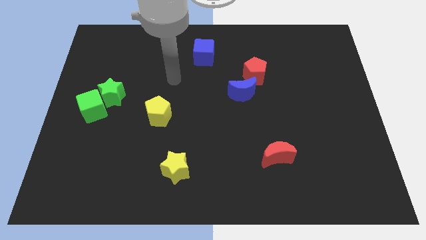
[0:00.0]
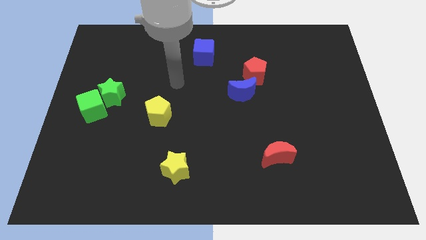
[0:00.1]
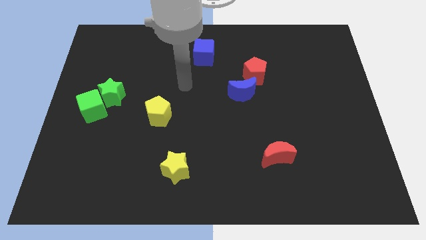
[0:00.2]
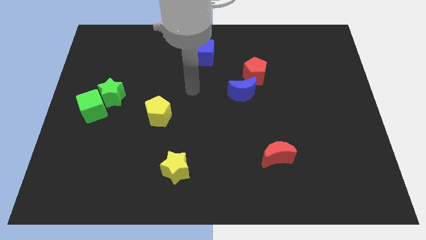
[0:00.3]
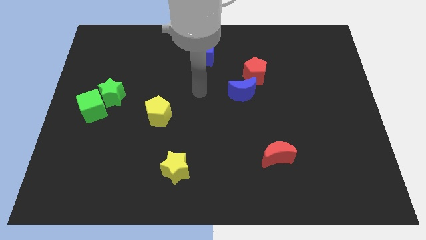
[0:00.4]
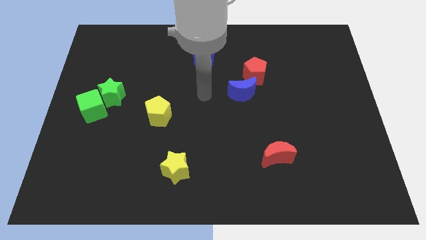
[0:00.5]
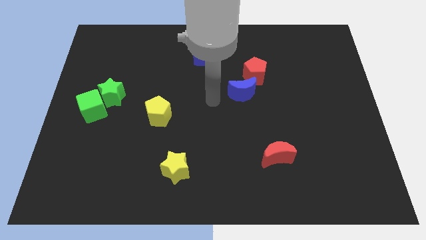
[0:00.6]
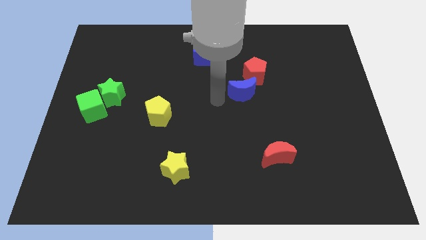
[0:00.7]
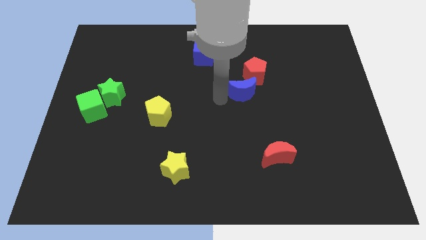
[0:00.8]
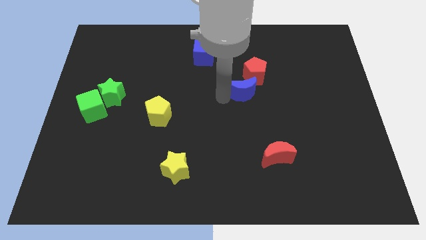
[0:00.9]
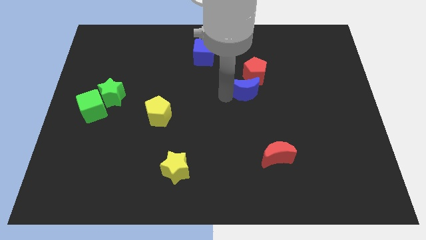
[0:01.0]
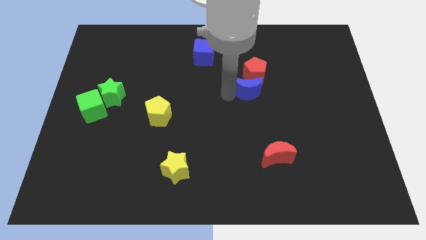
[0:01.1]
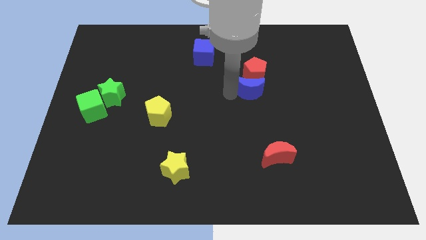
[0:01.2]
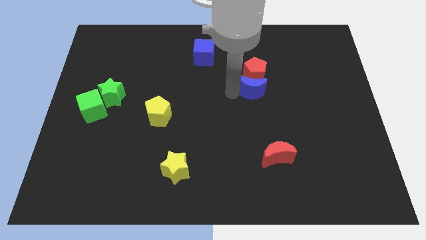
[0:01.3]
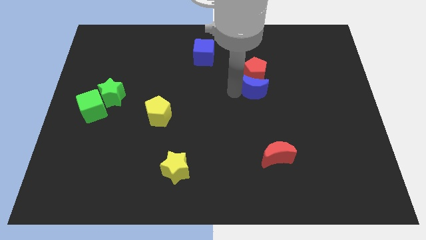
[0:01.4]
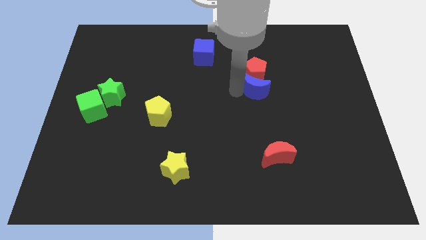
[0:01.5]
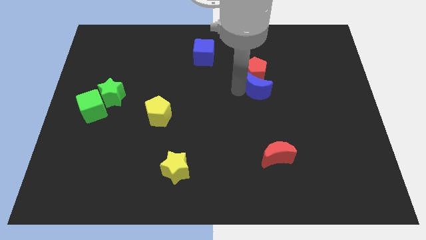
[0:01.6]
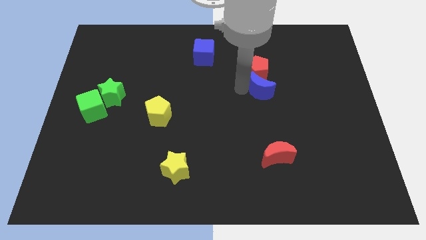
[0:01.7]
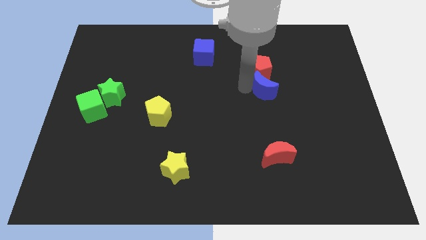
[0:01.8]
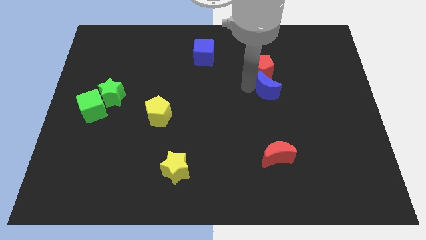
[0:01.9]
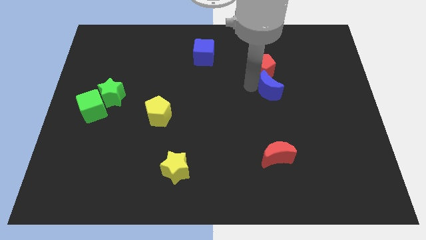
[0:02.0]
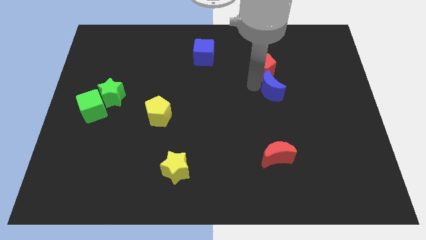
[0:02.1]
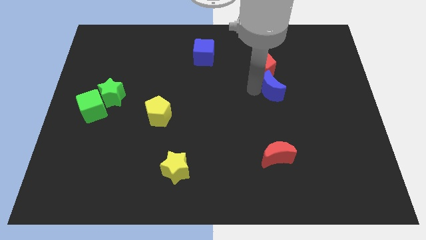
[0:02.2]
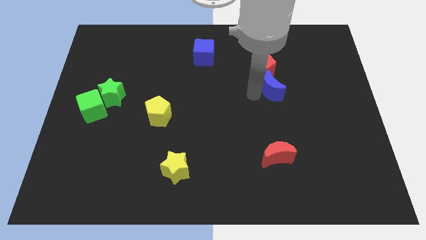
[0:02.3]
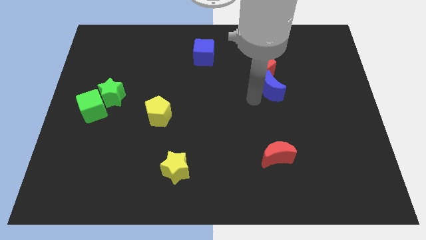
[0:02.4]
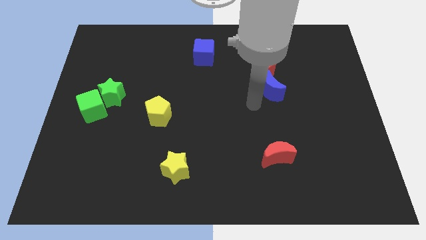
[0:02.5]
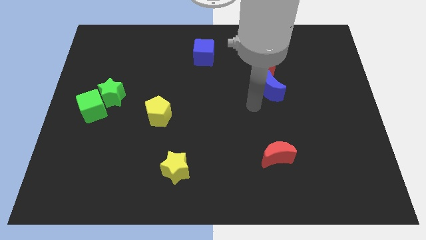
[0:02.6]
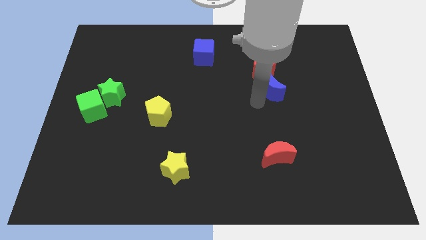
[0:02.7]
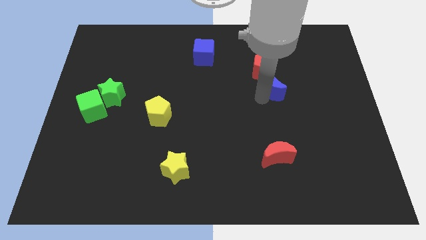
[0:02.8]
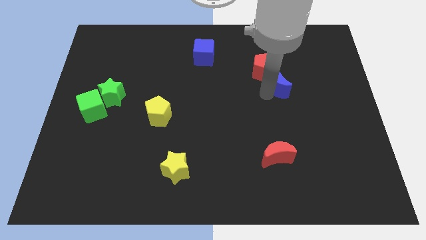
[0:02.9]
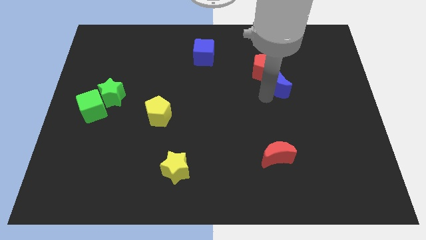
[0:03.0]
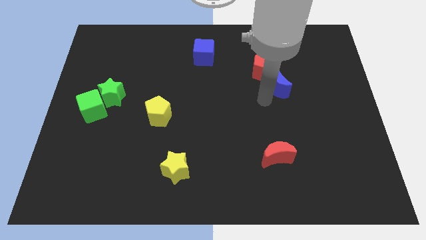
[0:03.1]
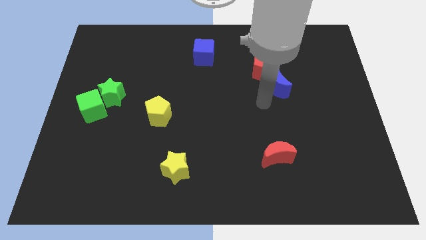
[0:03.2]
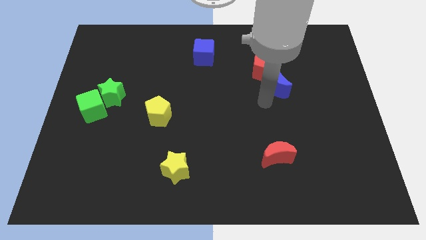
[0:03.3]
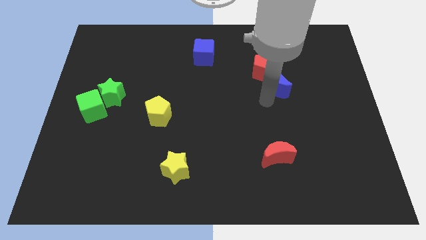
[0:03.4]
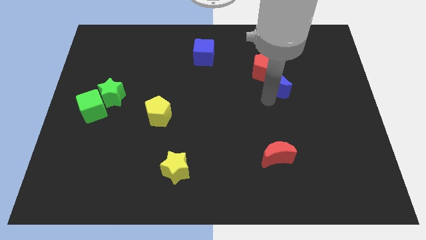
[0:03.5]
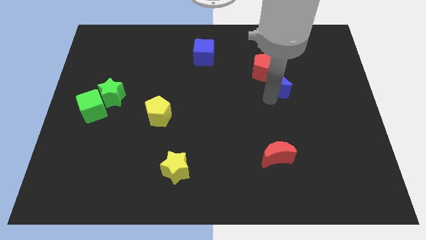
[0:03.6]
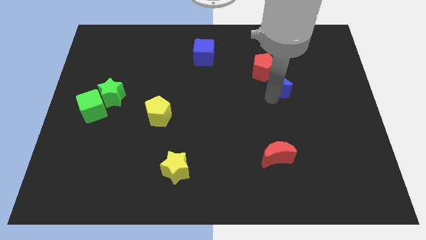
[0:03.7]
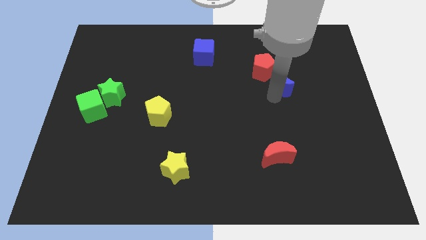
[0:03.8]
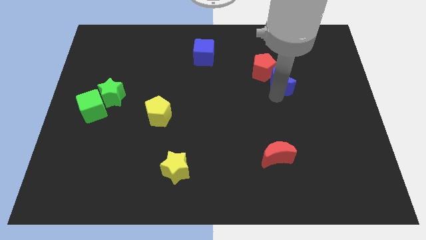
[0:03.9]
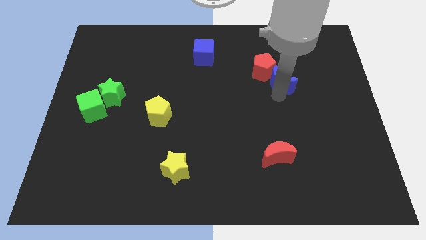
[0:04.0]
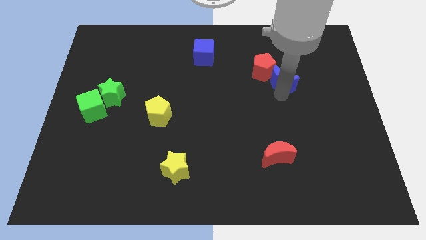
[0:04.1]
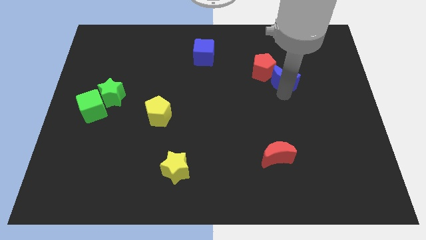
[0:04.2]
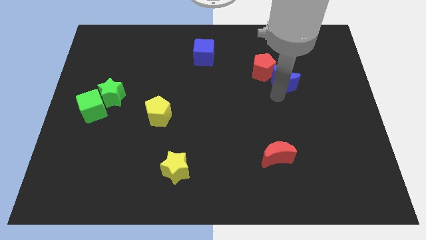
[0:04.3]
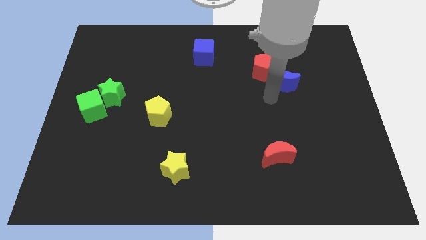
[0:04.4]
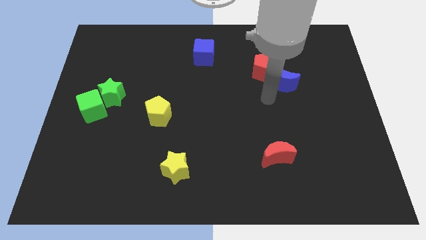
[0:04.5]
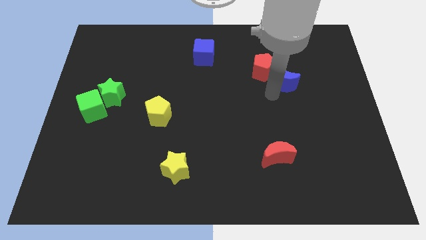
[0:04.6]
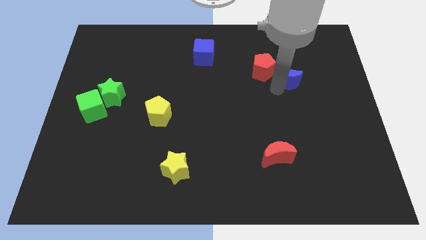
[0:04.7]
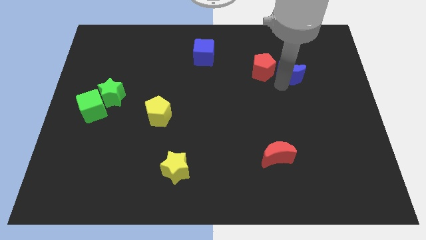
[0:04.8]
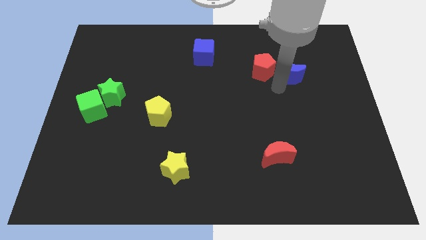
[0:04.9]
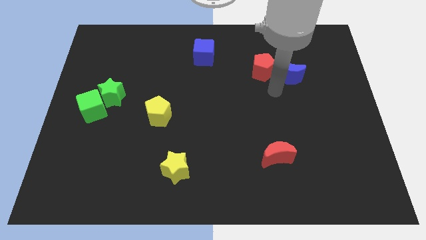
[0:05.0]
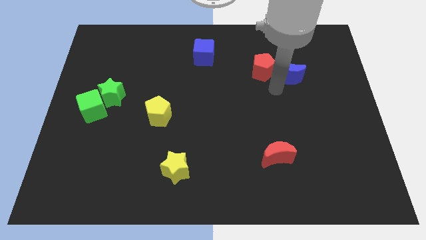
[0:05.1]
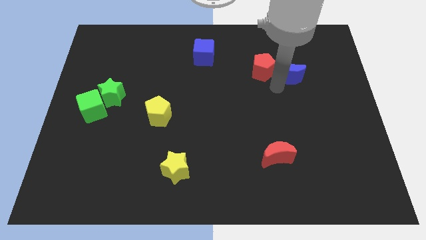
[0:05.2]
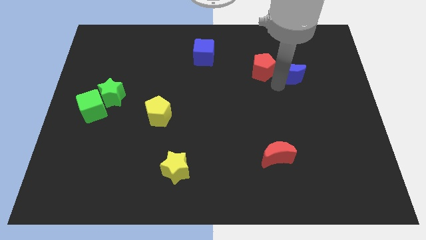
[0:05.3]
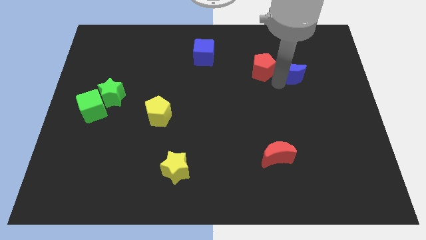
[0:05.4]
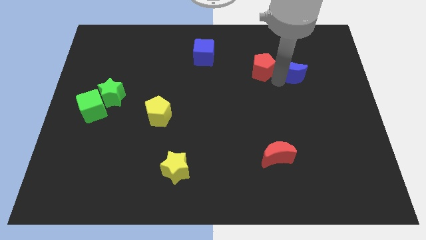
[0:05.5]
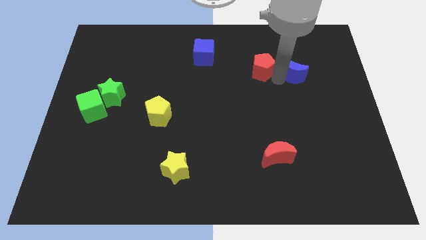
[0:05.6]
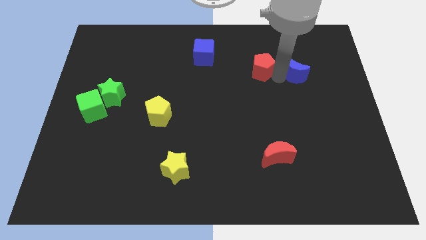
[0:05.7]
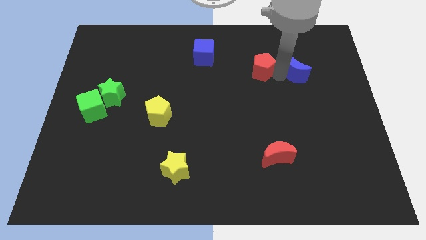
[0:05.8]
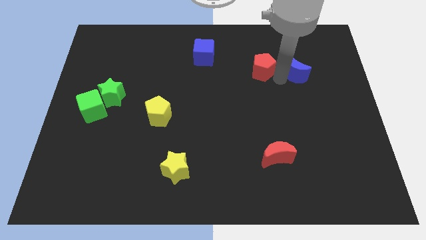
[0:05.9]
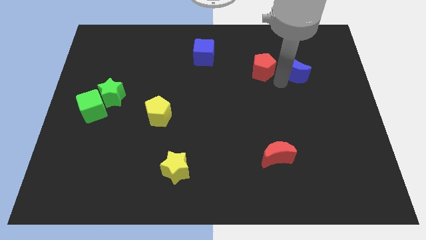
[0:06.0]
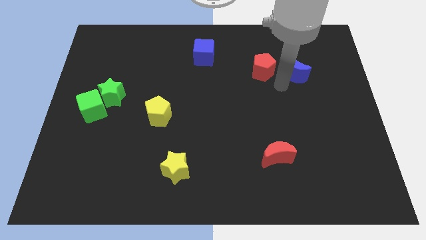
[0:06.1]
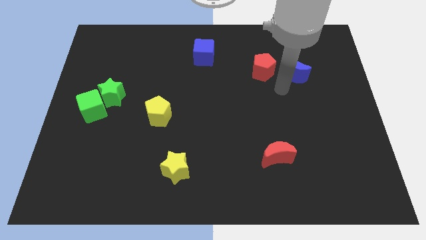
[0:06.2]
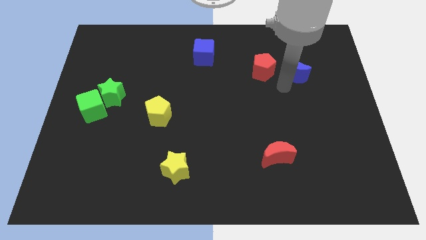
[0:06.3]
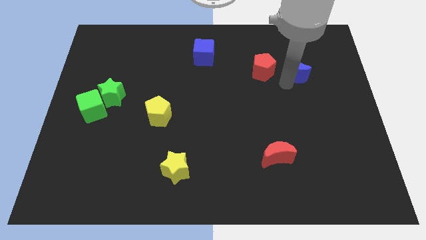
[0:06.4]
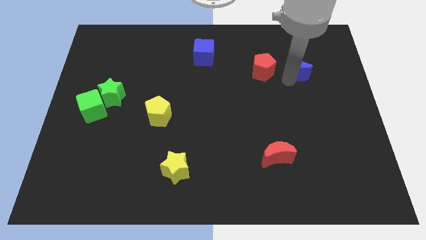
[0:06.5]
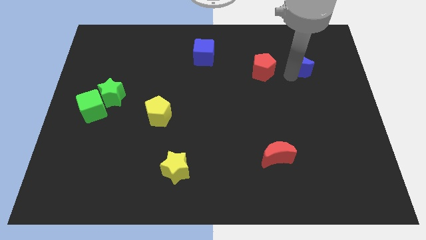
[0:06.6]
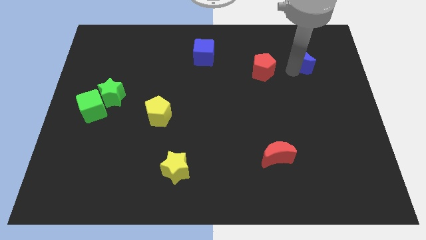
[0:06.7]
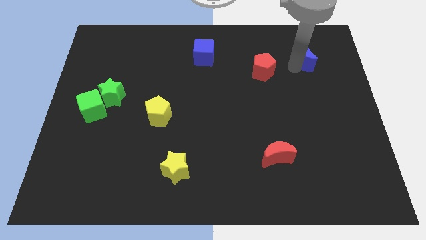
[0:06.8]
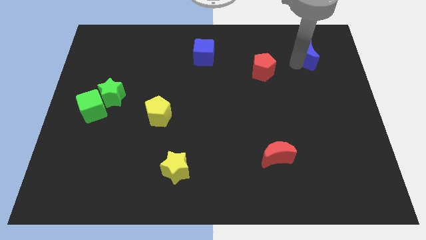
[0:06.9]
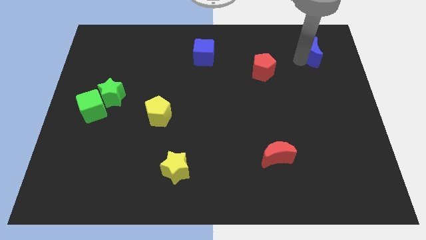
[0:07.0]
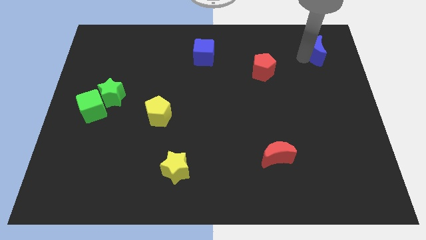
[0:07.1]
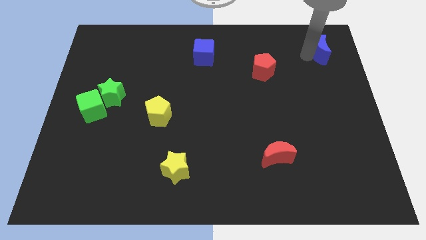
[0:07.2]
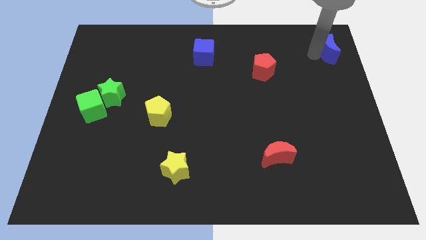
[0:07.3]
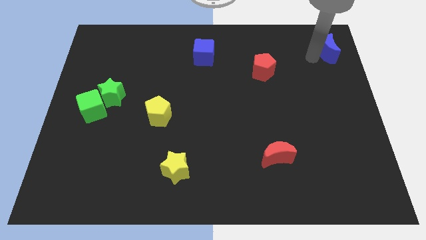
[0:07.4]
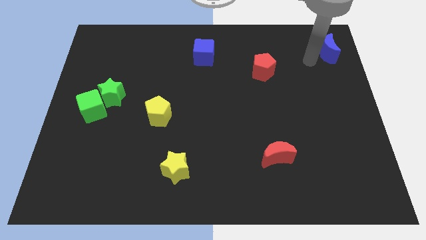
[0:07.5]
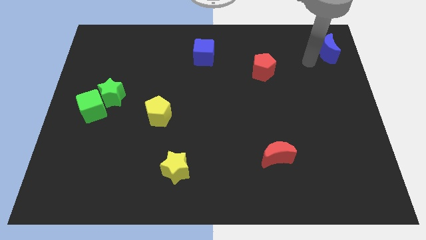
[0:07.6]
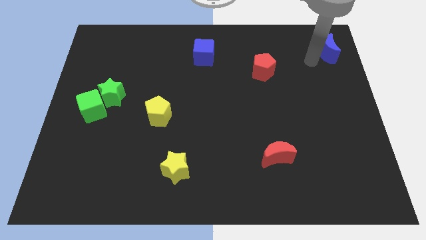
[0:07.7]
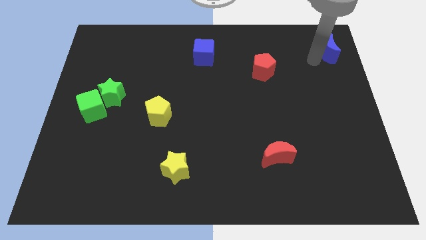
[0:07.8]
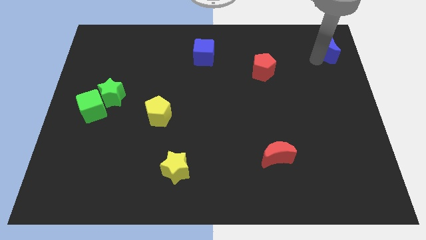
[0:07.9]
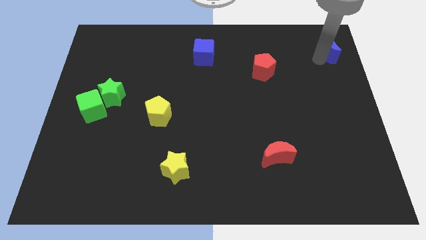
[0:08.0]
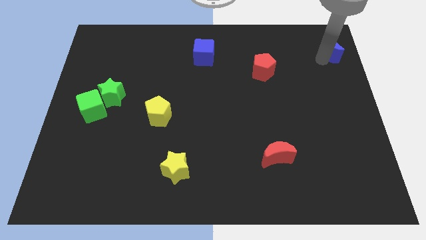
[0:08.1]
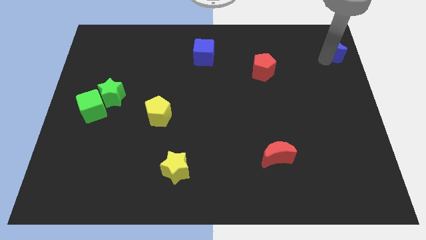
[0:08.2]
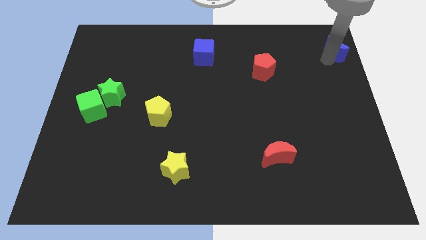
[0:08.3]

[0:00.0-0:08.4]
slide the blue moon to the upper right corner
